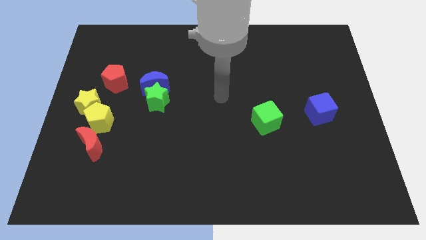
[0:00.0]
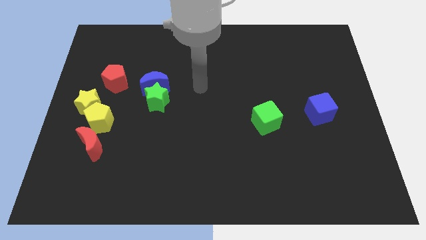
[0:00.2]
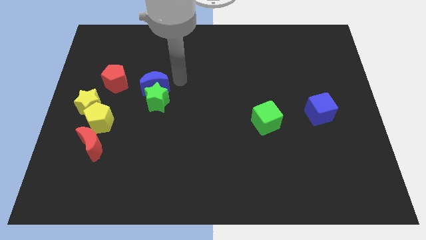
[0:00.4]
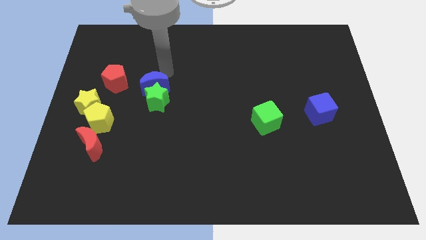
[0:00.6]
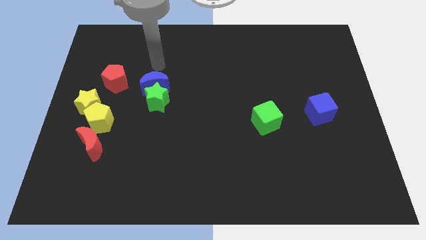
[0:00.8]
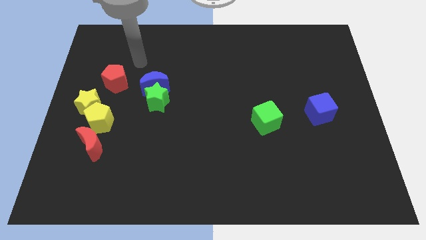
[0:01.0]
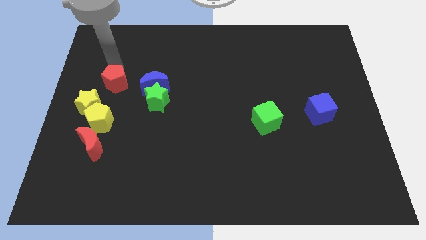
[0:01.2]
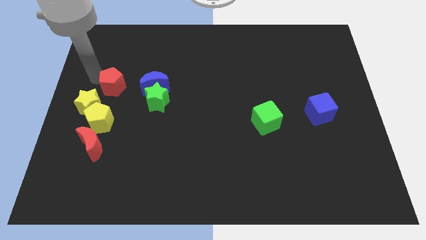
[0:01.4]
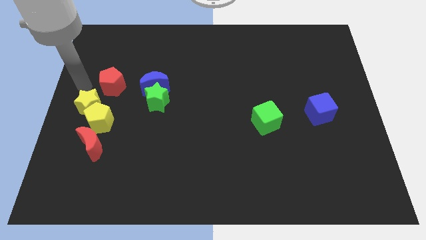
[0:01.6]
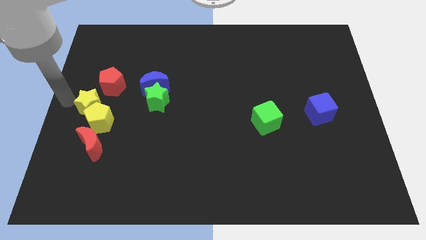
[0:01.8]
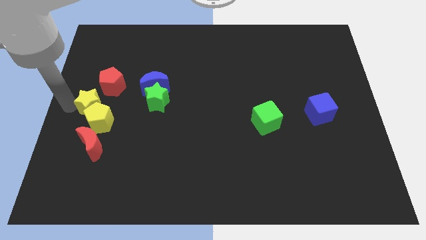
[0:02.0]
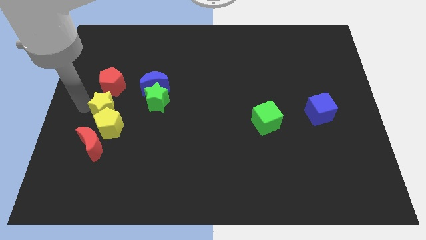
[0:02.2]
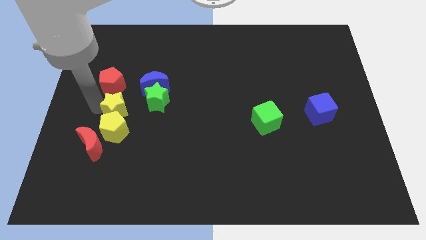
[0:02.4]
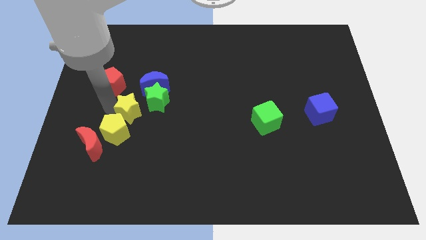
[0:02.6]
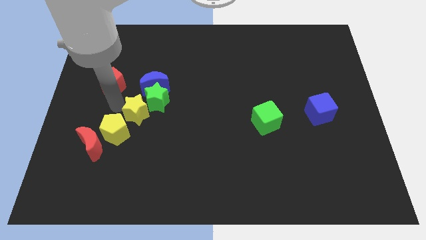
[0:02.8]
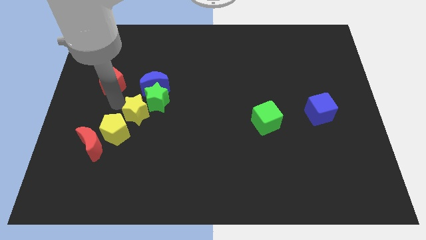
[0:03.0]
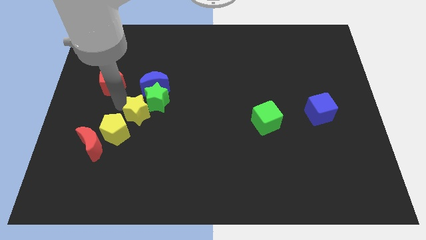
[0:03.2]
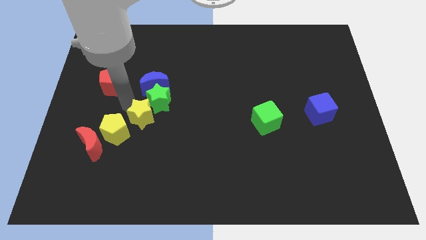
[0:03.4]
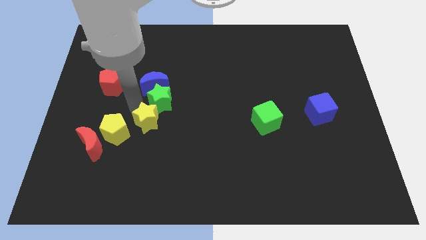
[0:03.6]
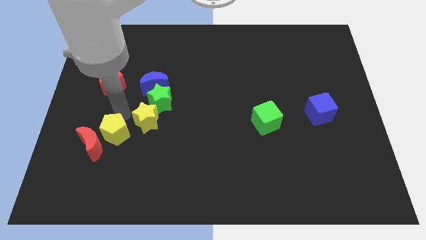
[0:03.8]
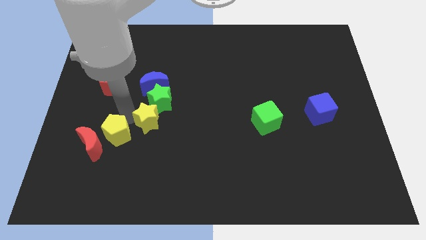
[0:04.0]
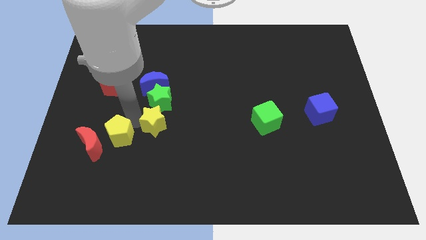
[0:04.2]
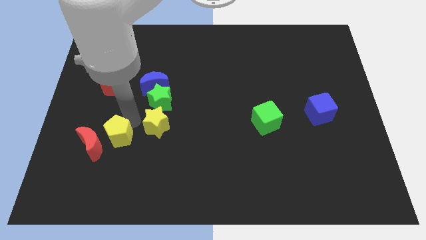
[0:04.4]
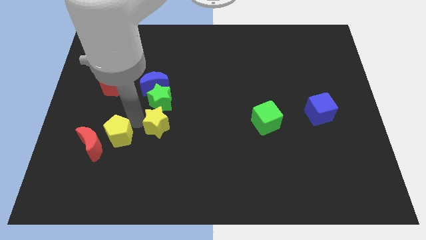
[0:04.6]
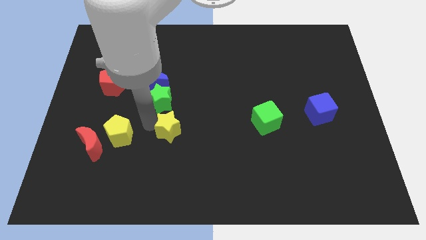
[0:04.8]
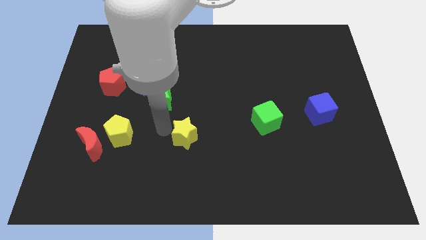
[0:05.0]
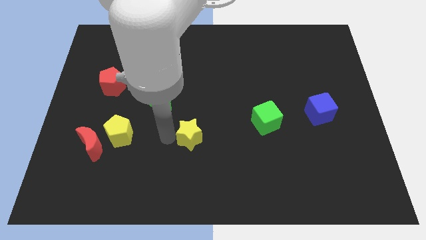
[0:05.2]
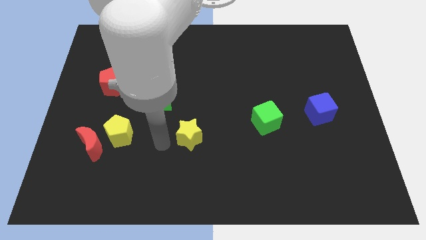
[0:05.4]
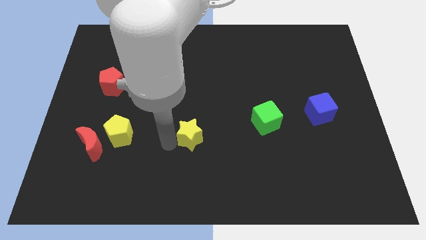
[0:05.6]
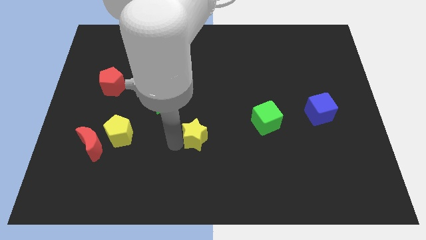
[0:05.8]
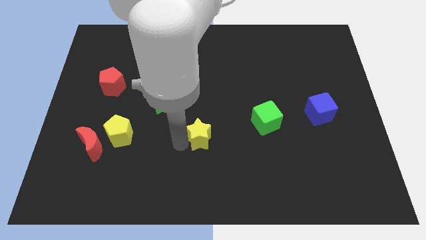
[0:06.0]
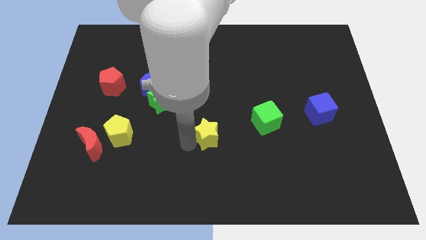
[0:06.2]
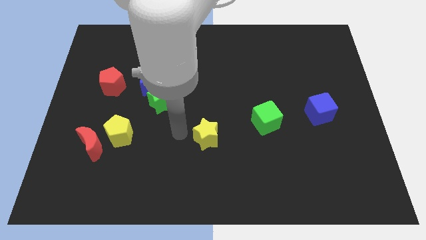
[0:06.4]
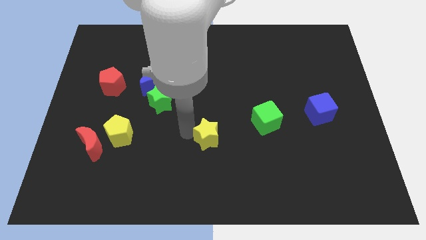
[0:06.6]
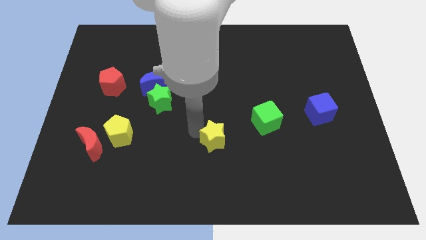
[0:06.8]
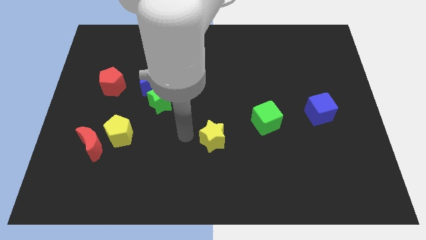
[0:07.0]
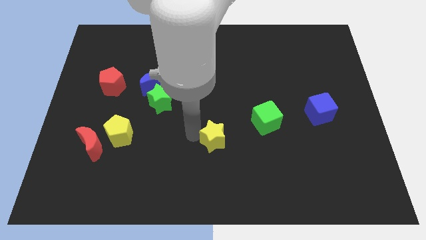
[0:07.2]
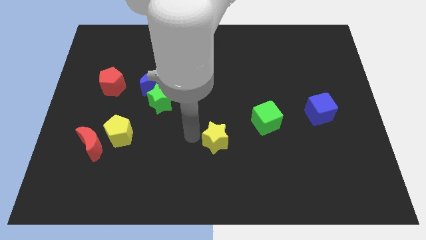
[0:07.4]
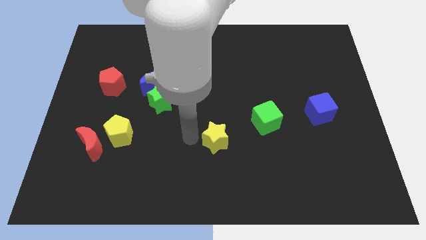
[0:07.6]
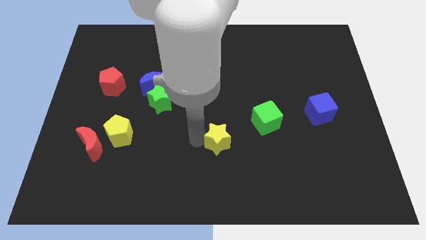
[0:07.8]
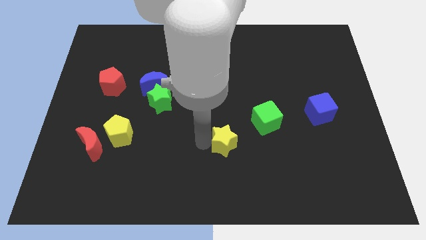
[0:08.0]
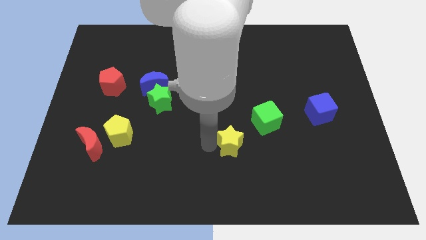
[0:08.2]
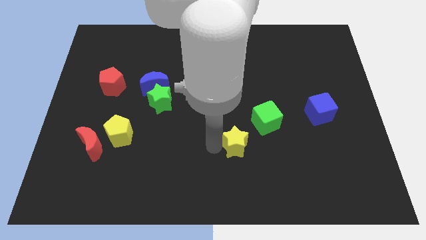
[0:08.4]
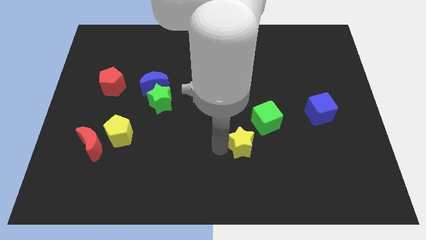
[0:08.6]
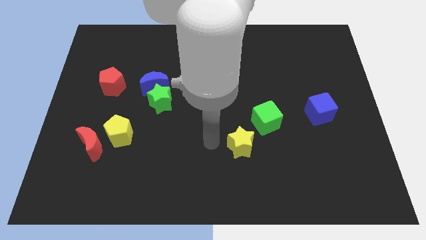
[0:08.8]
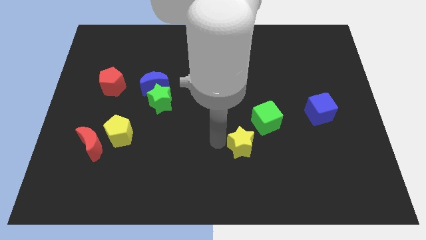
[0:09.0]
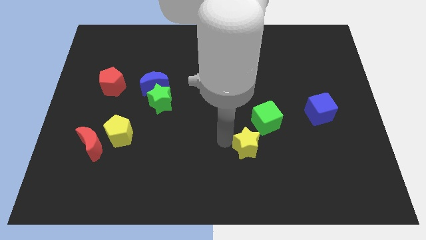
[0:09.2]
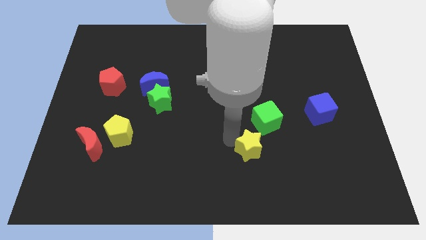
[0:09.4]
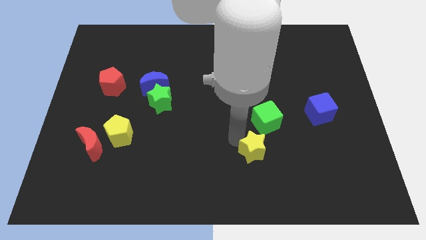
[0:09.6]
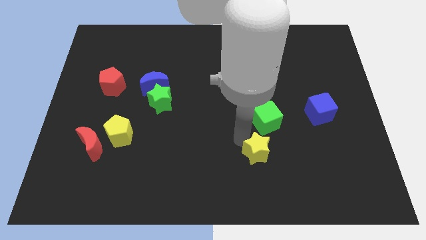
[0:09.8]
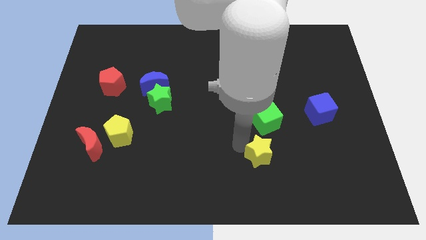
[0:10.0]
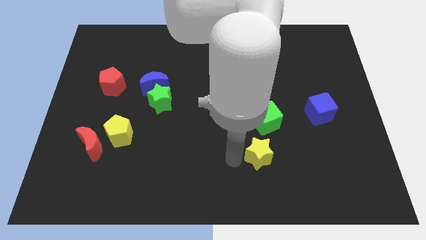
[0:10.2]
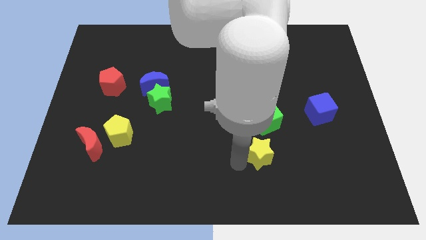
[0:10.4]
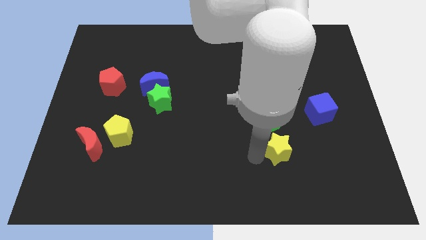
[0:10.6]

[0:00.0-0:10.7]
put the yellow star diagonally down and to the right of the green cube

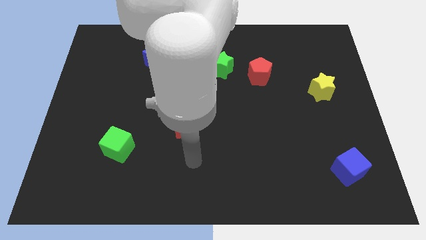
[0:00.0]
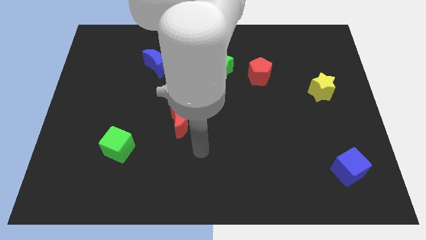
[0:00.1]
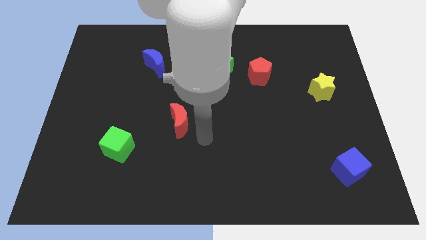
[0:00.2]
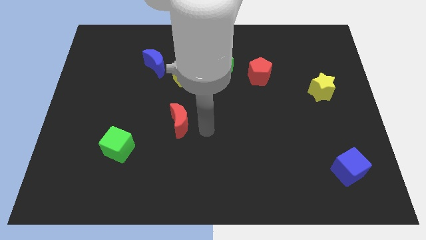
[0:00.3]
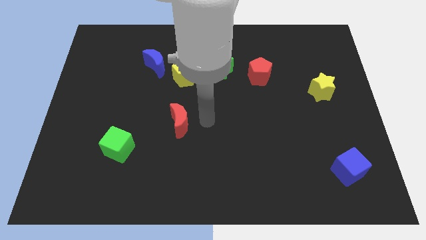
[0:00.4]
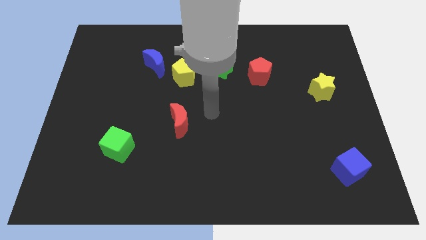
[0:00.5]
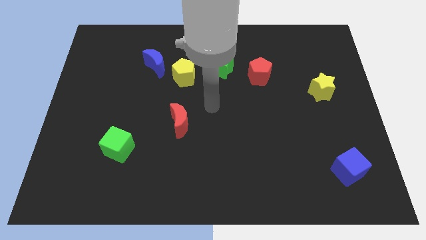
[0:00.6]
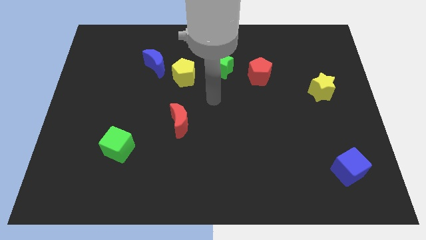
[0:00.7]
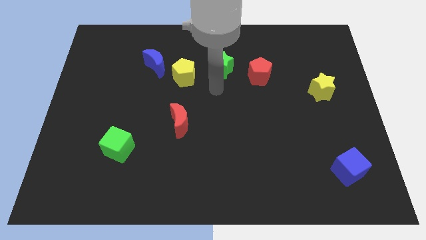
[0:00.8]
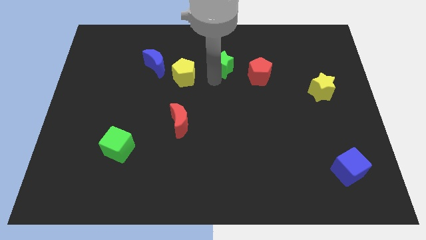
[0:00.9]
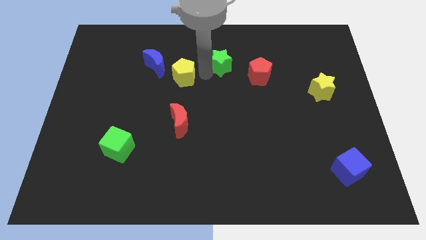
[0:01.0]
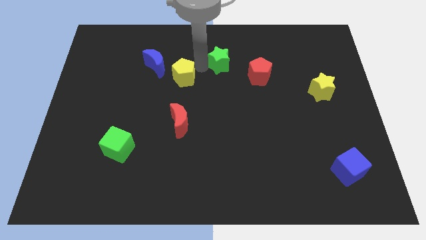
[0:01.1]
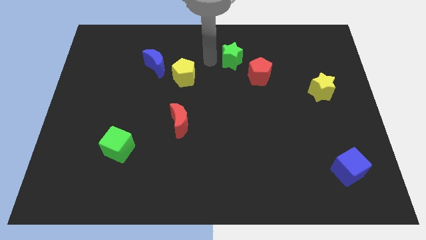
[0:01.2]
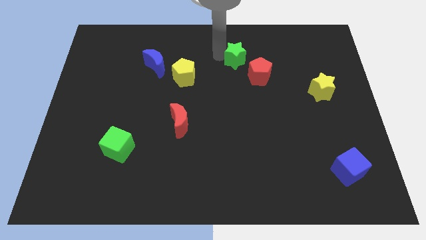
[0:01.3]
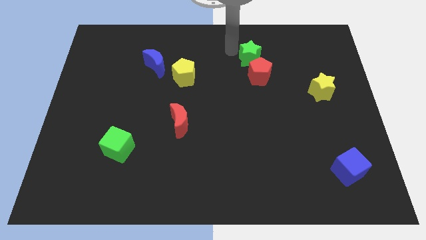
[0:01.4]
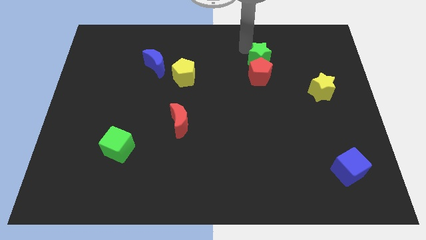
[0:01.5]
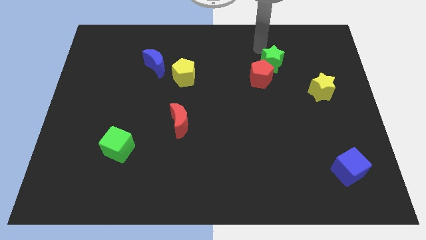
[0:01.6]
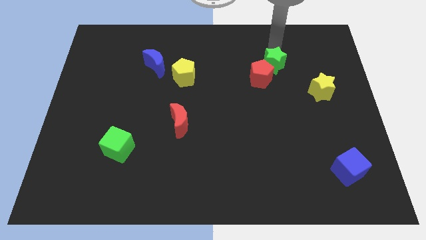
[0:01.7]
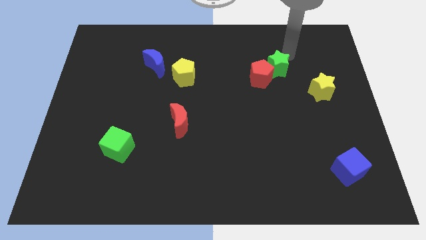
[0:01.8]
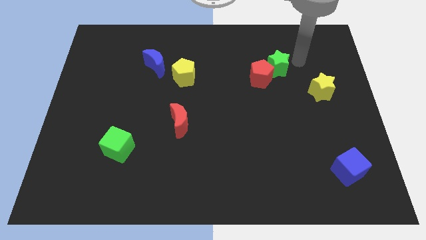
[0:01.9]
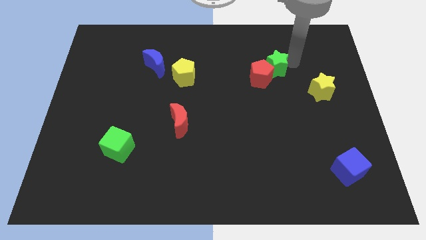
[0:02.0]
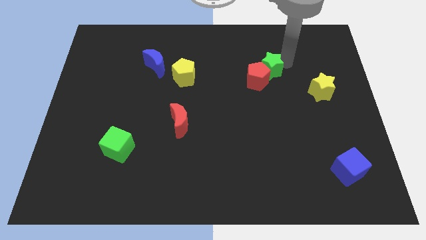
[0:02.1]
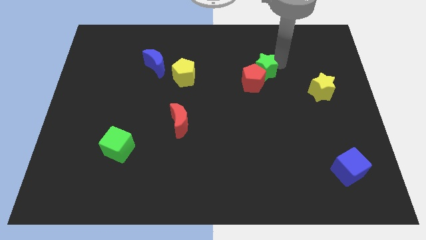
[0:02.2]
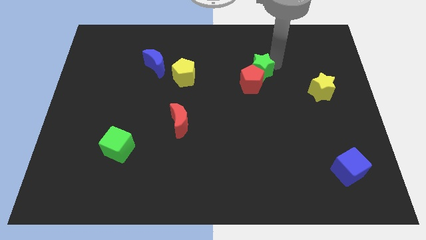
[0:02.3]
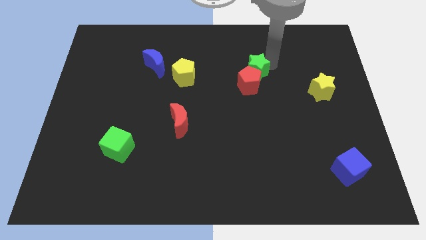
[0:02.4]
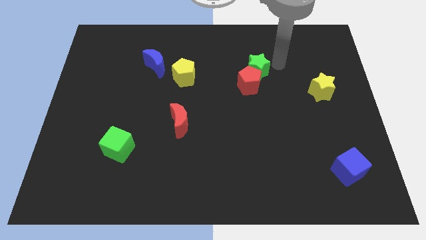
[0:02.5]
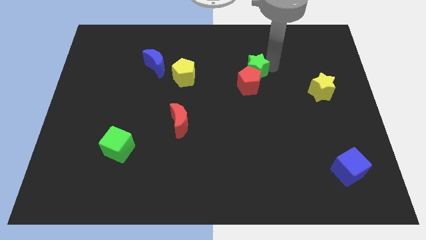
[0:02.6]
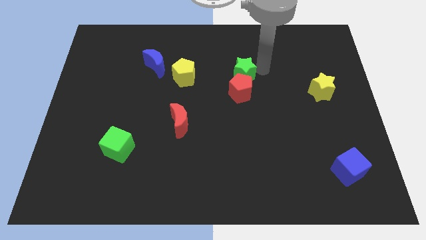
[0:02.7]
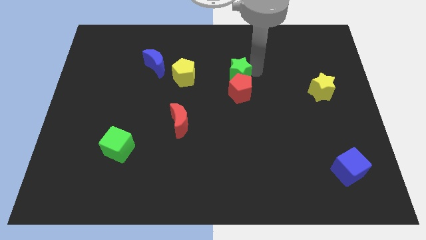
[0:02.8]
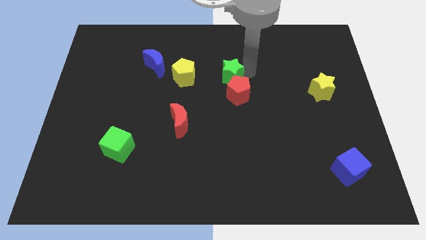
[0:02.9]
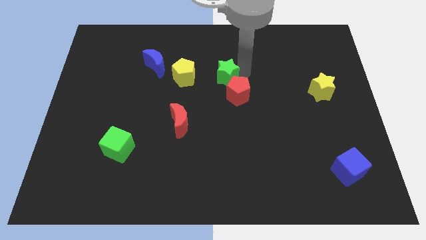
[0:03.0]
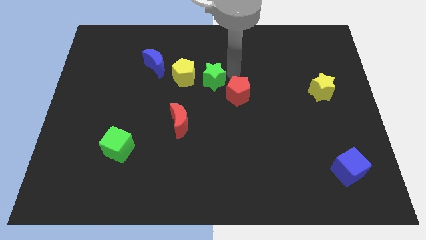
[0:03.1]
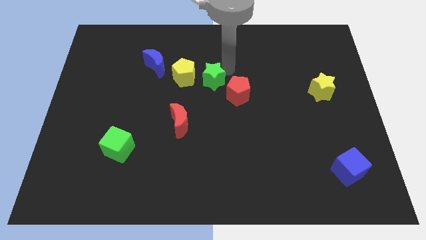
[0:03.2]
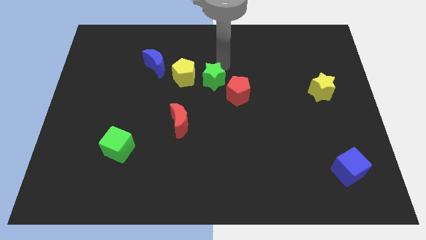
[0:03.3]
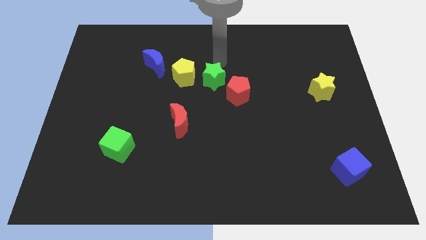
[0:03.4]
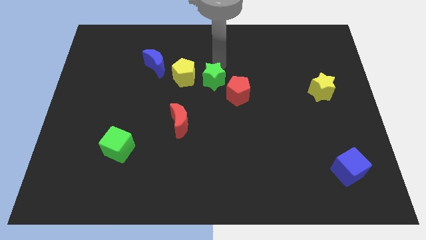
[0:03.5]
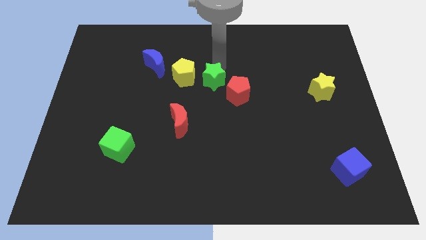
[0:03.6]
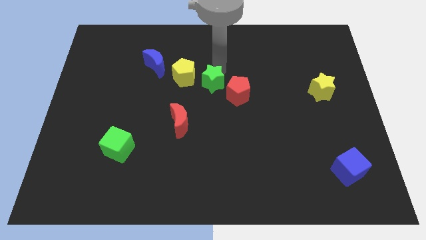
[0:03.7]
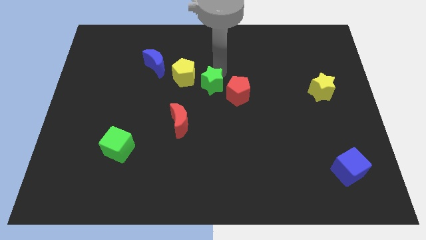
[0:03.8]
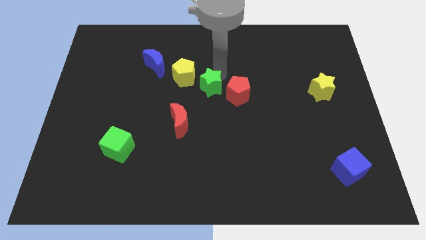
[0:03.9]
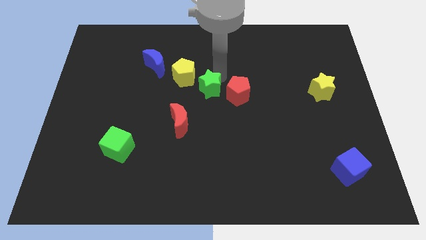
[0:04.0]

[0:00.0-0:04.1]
put the green star to the top right of the red moon
